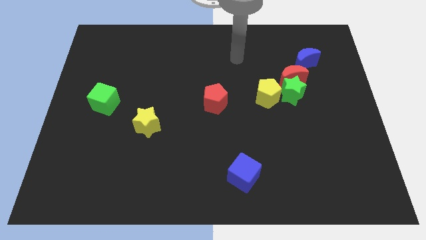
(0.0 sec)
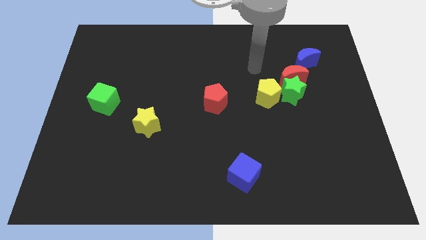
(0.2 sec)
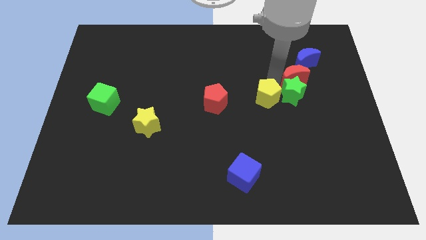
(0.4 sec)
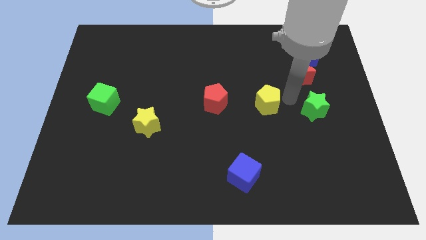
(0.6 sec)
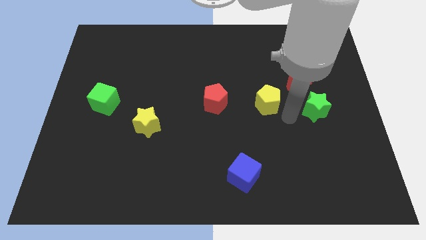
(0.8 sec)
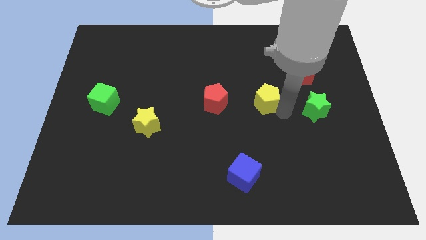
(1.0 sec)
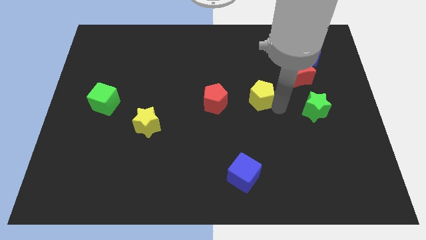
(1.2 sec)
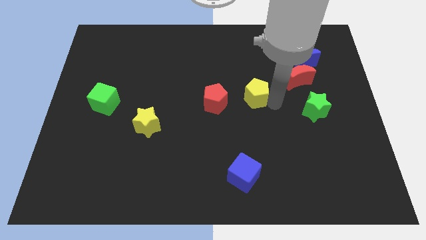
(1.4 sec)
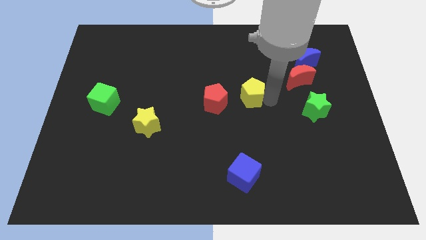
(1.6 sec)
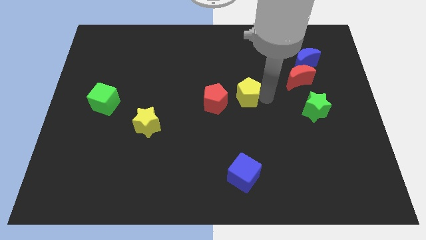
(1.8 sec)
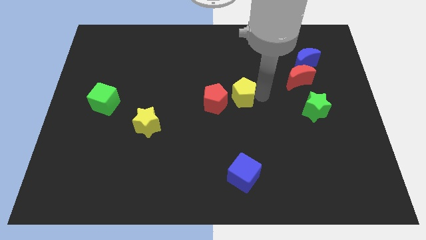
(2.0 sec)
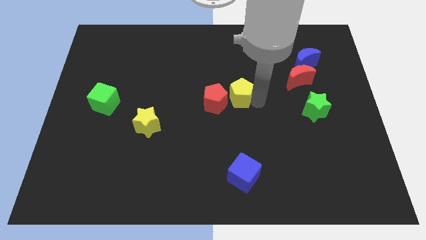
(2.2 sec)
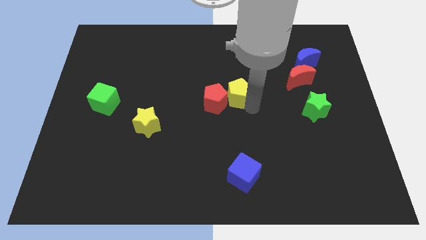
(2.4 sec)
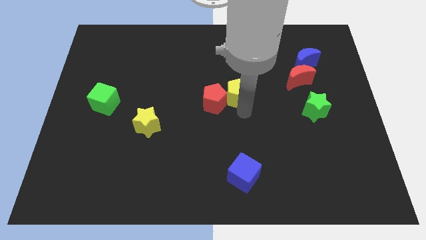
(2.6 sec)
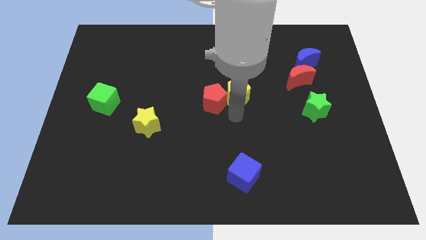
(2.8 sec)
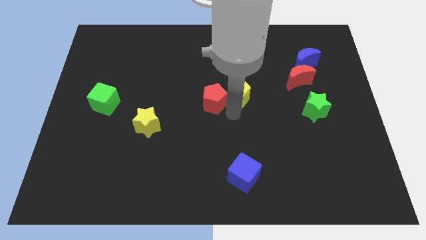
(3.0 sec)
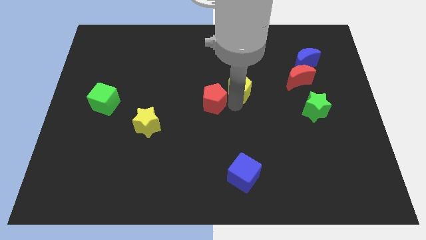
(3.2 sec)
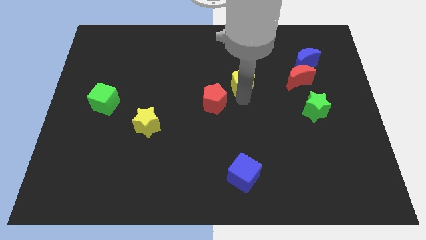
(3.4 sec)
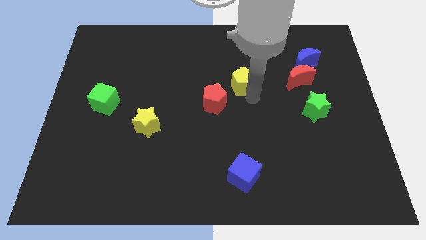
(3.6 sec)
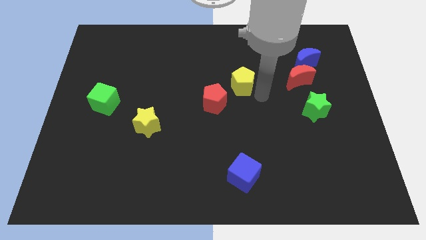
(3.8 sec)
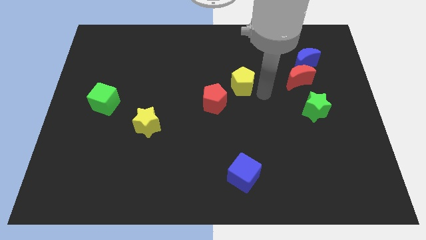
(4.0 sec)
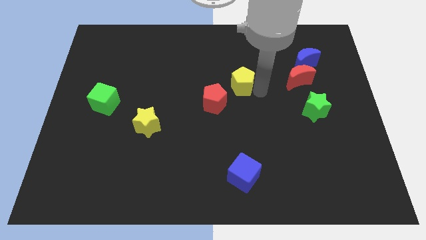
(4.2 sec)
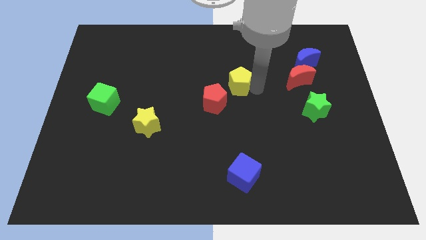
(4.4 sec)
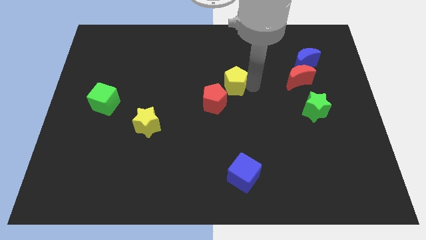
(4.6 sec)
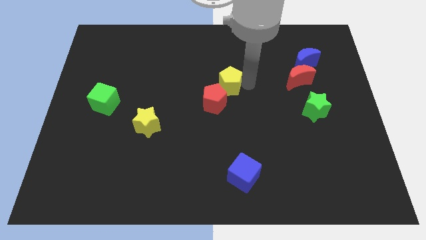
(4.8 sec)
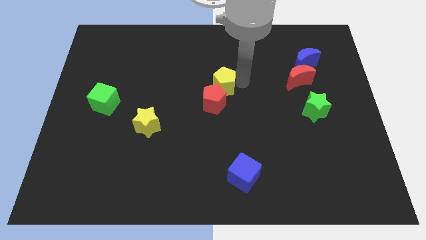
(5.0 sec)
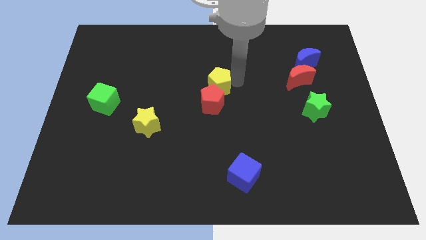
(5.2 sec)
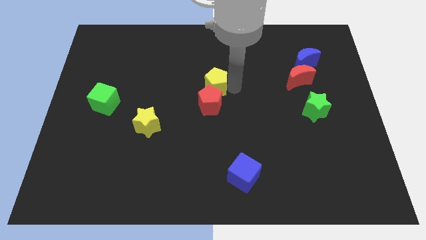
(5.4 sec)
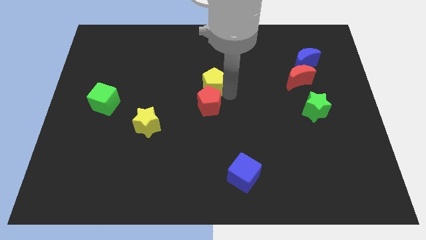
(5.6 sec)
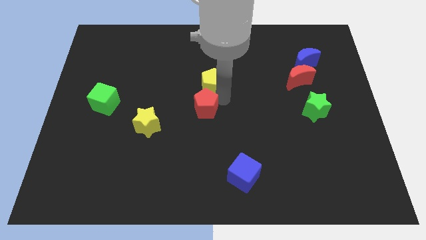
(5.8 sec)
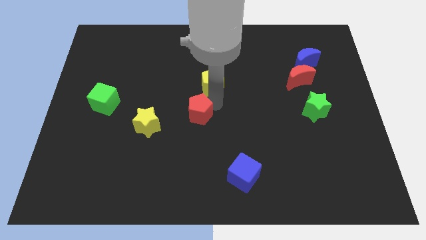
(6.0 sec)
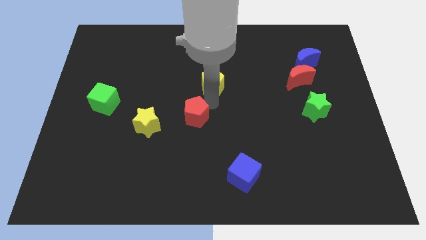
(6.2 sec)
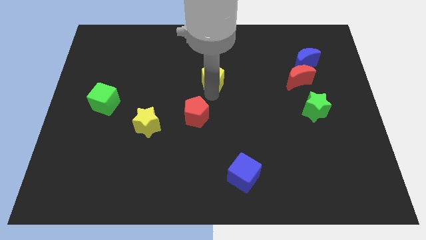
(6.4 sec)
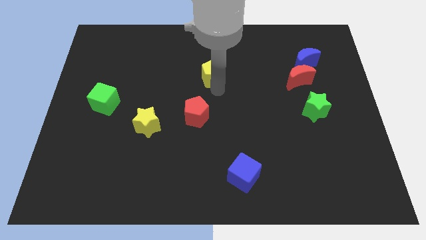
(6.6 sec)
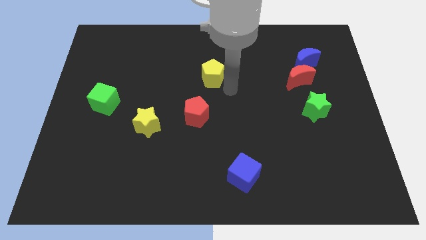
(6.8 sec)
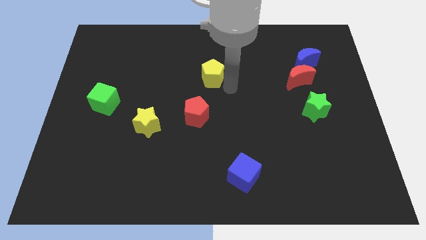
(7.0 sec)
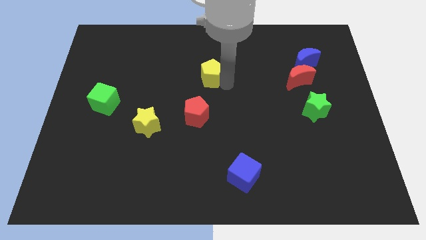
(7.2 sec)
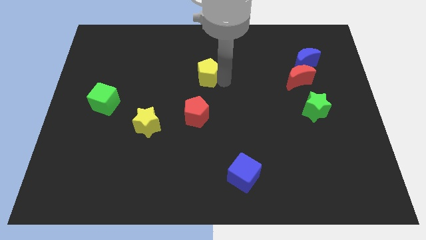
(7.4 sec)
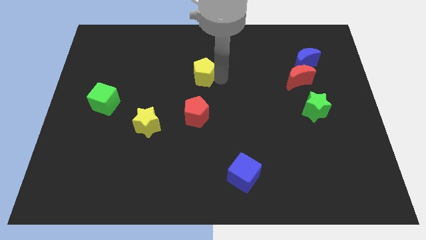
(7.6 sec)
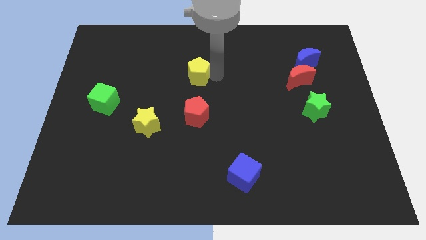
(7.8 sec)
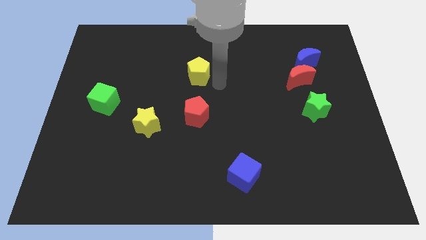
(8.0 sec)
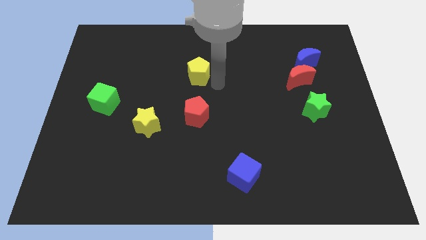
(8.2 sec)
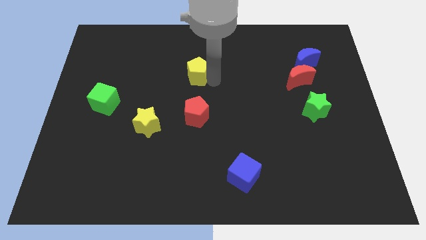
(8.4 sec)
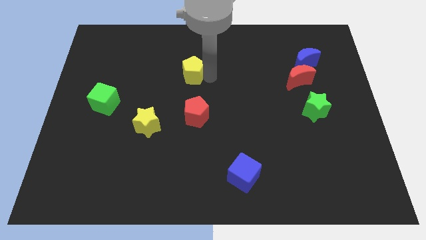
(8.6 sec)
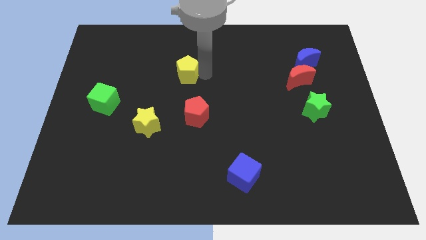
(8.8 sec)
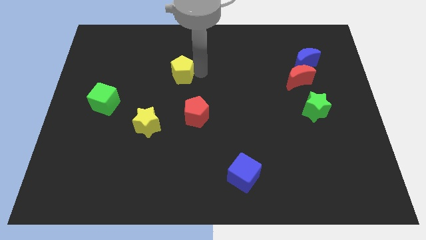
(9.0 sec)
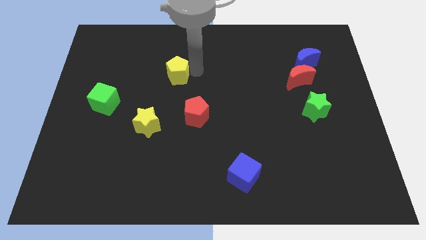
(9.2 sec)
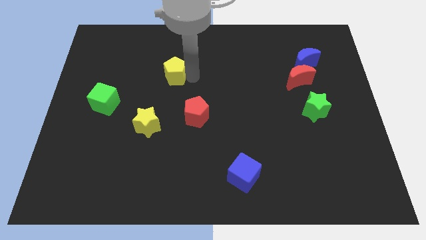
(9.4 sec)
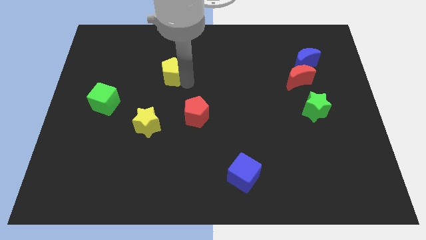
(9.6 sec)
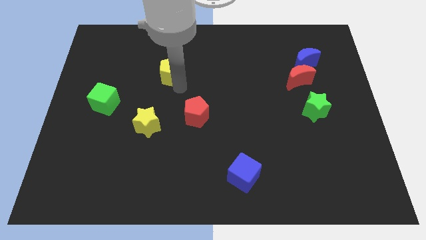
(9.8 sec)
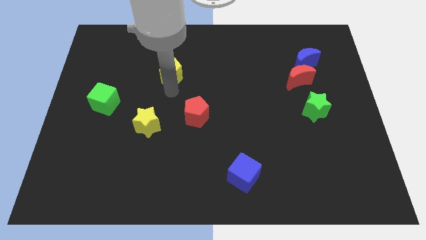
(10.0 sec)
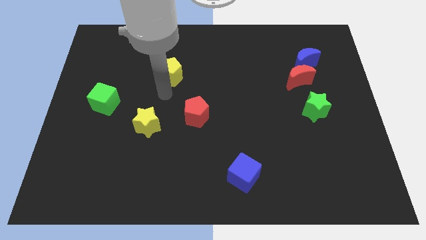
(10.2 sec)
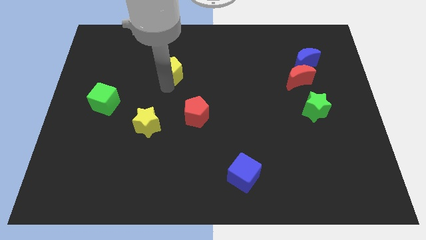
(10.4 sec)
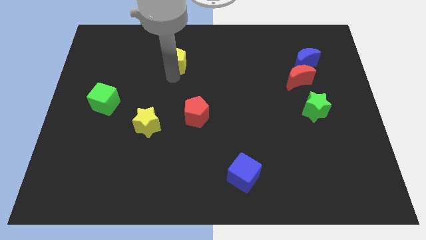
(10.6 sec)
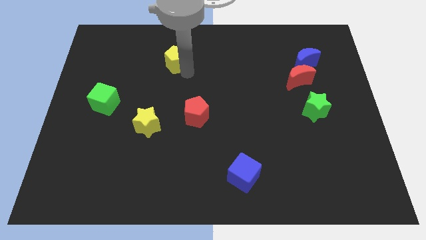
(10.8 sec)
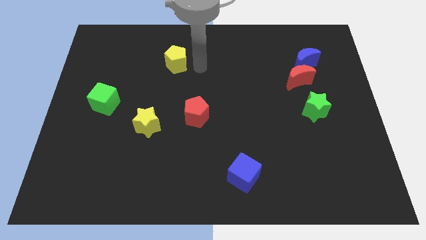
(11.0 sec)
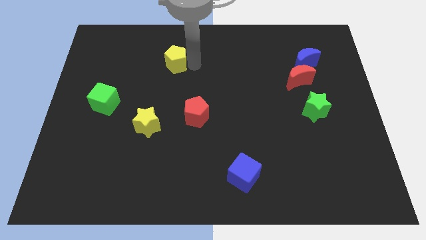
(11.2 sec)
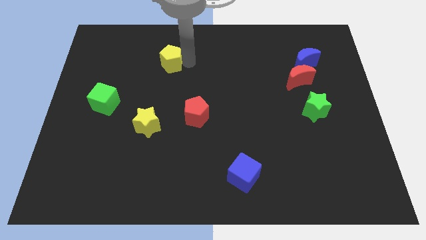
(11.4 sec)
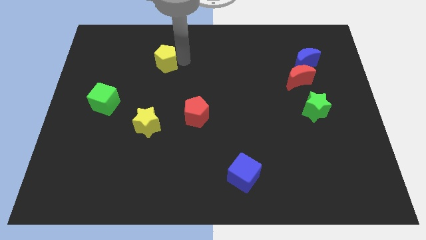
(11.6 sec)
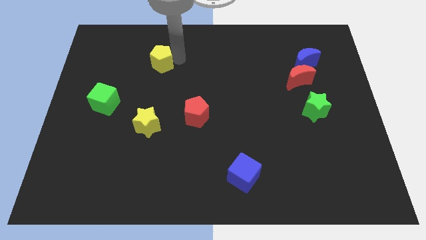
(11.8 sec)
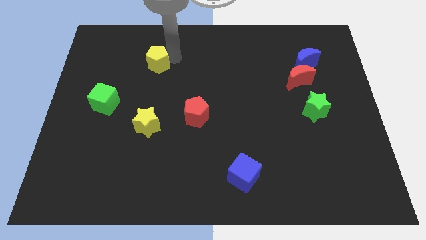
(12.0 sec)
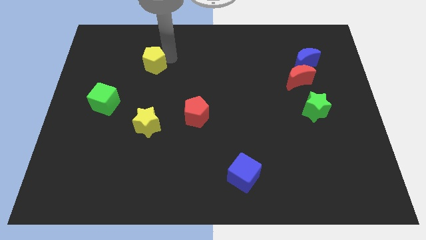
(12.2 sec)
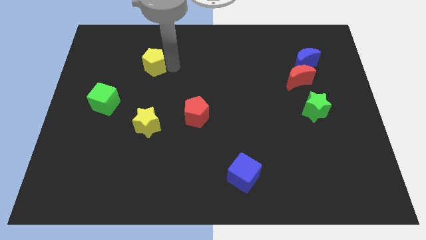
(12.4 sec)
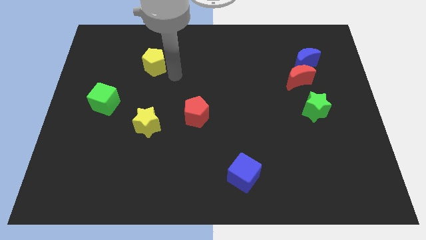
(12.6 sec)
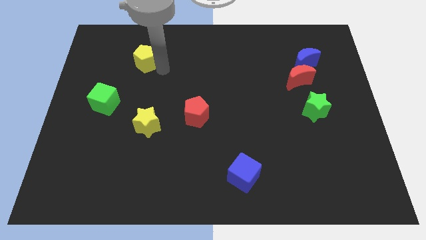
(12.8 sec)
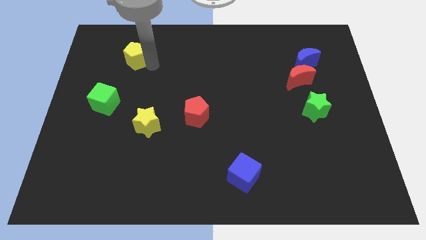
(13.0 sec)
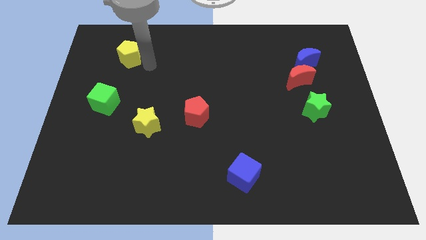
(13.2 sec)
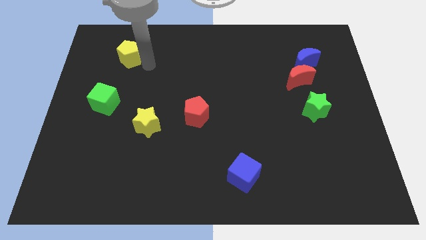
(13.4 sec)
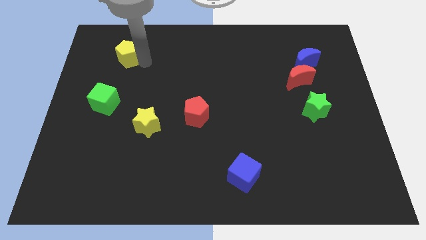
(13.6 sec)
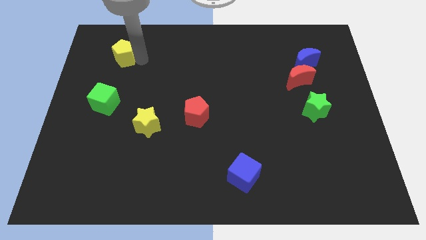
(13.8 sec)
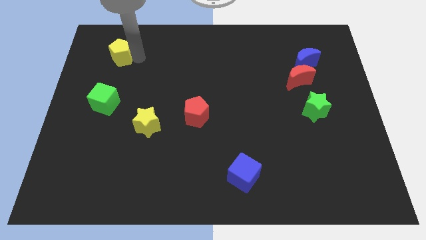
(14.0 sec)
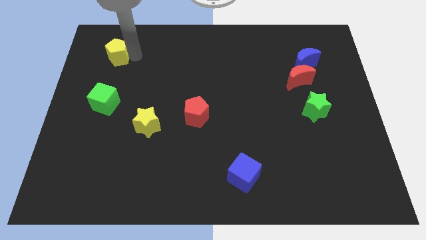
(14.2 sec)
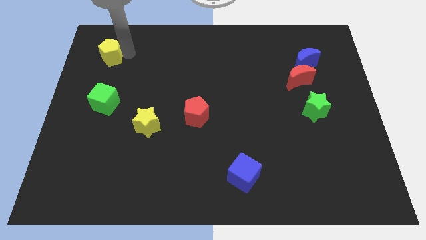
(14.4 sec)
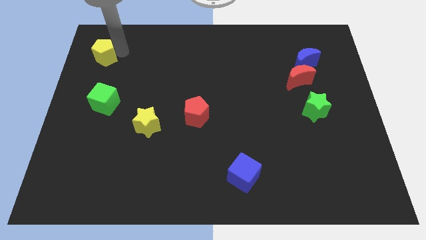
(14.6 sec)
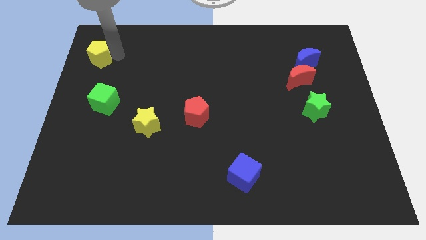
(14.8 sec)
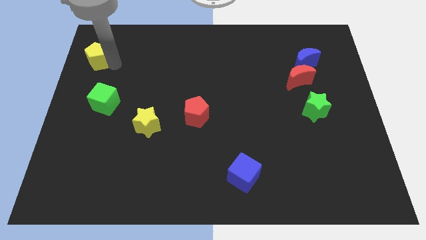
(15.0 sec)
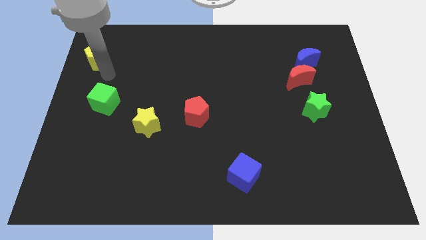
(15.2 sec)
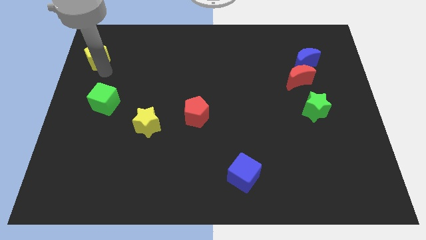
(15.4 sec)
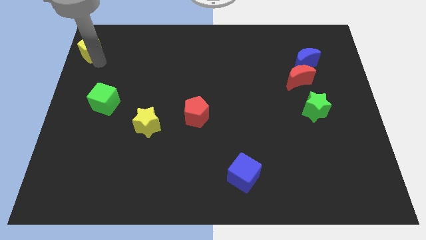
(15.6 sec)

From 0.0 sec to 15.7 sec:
slide the yellow pentagon to the upper left corner
